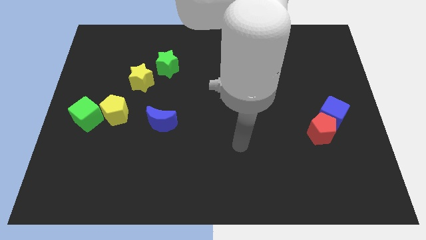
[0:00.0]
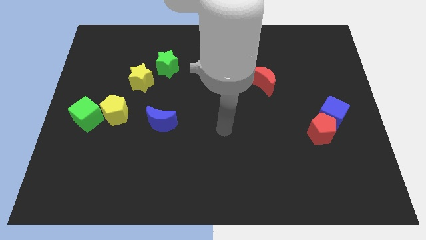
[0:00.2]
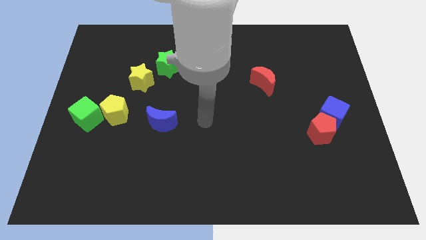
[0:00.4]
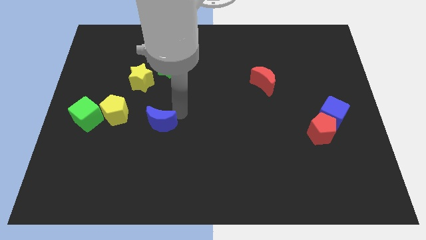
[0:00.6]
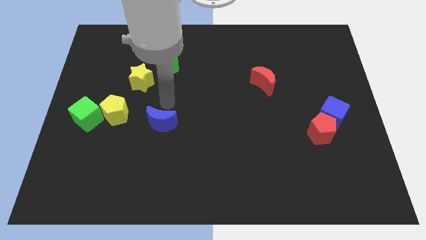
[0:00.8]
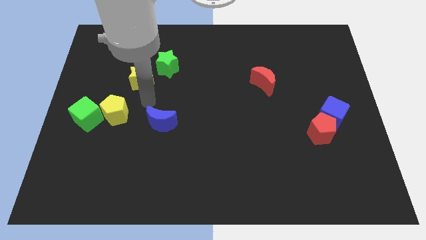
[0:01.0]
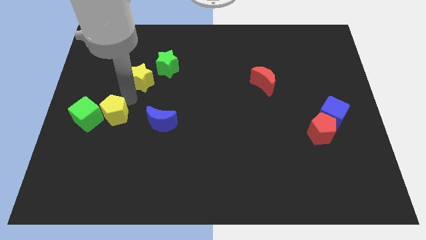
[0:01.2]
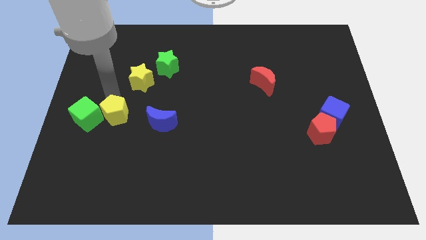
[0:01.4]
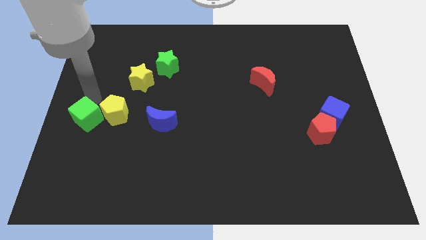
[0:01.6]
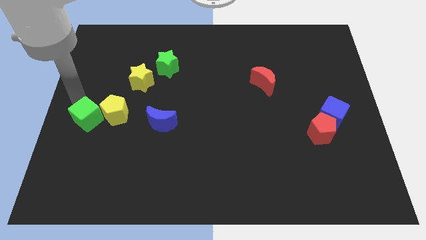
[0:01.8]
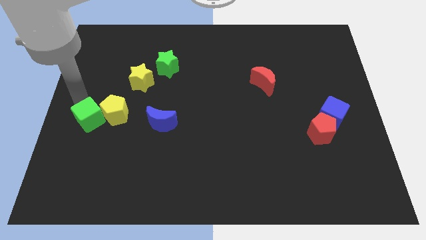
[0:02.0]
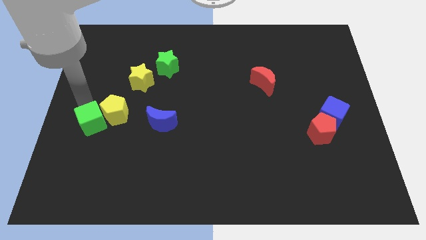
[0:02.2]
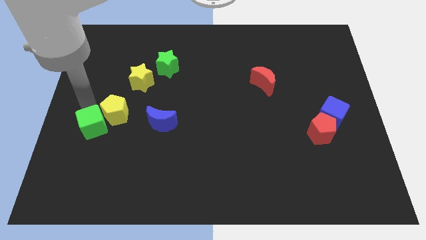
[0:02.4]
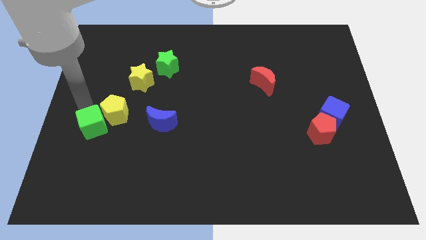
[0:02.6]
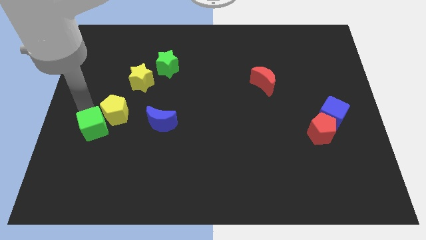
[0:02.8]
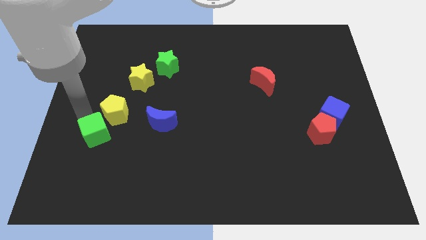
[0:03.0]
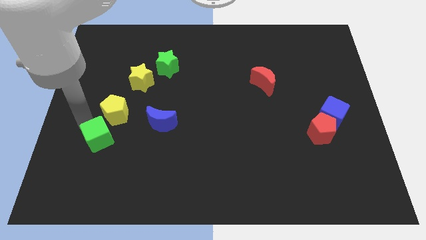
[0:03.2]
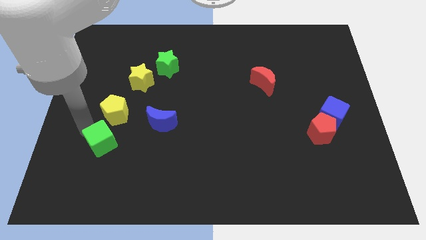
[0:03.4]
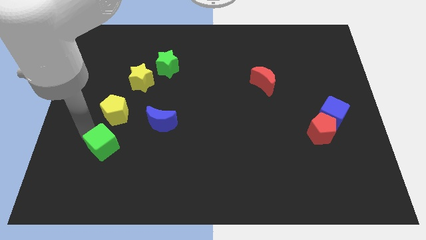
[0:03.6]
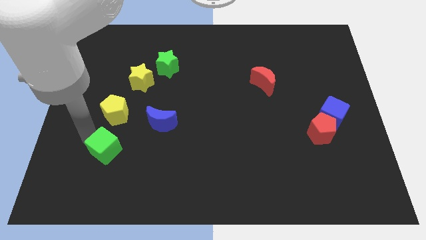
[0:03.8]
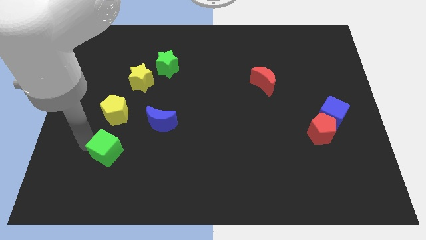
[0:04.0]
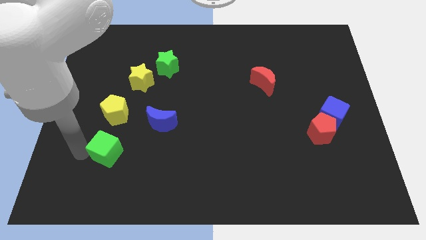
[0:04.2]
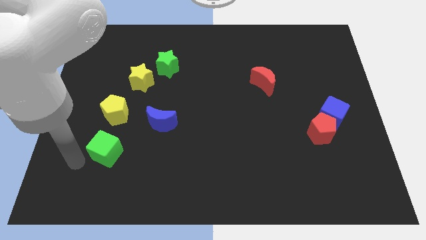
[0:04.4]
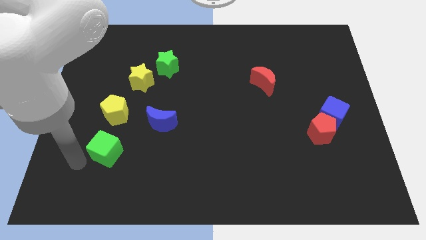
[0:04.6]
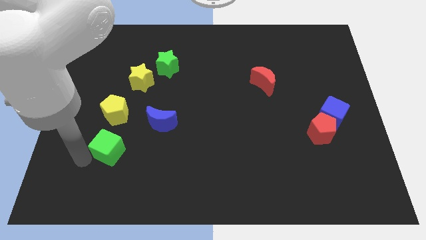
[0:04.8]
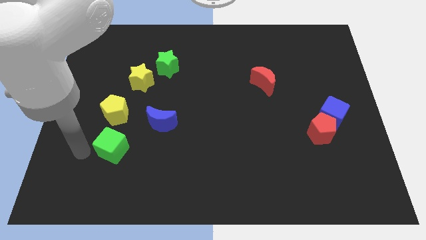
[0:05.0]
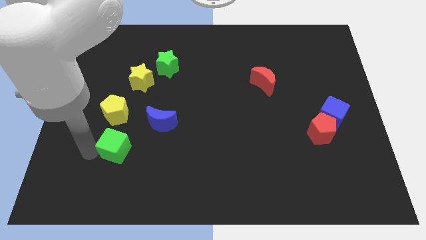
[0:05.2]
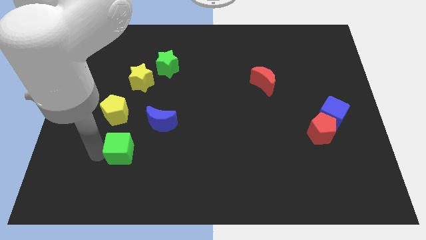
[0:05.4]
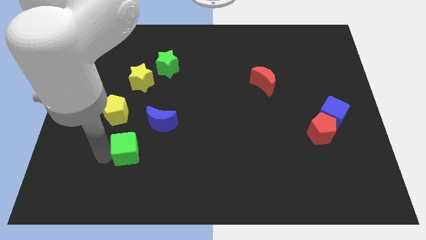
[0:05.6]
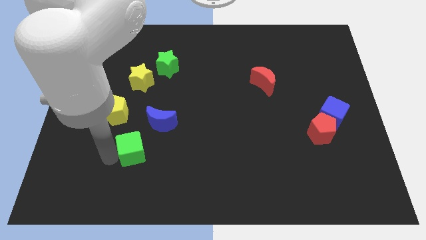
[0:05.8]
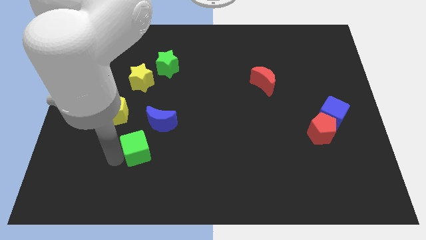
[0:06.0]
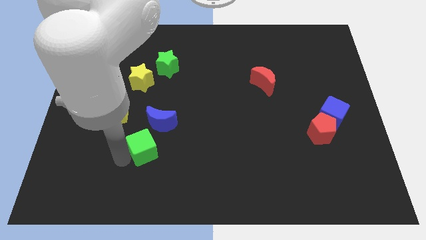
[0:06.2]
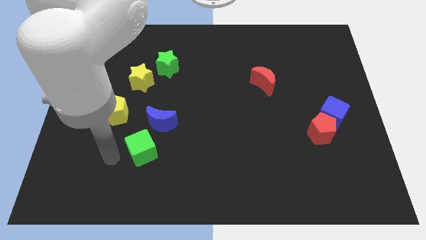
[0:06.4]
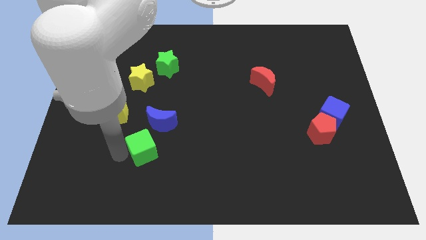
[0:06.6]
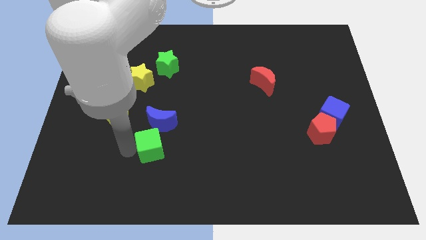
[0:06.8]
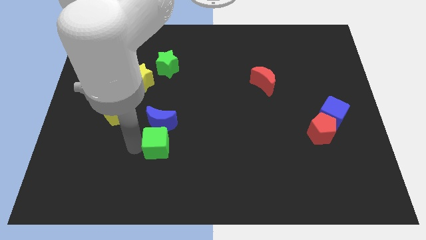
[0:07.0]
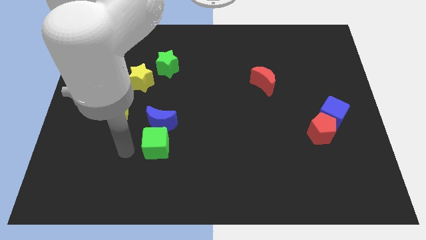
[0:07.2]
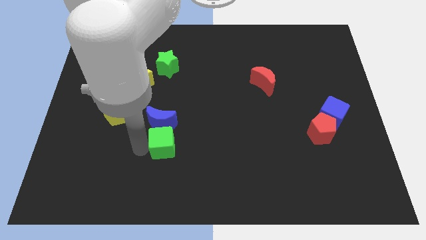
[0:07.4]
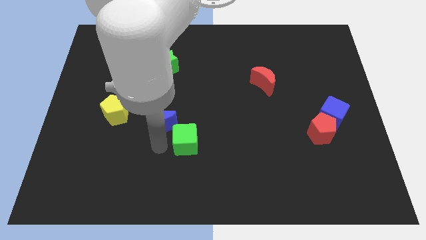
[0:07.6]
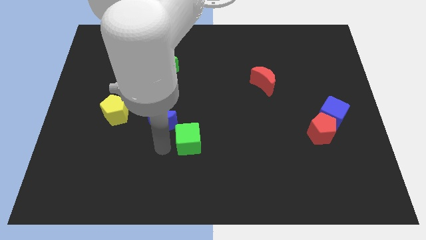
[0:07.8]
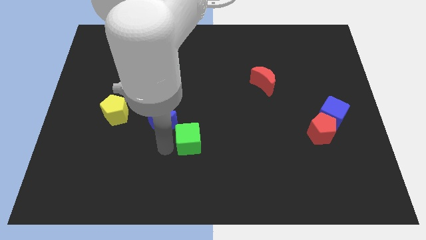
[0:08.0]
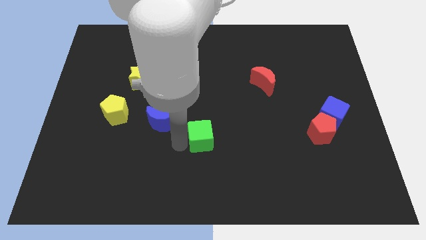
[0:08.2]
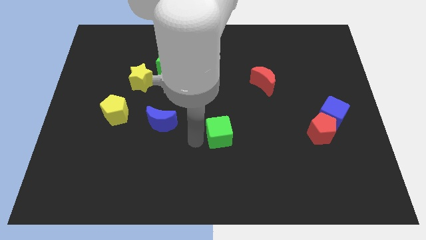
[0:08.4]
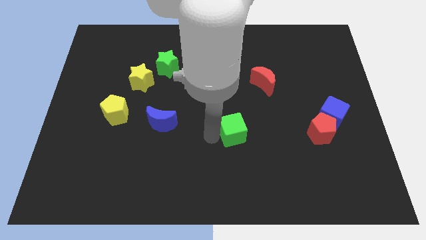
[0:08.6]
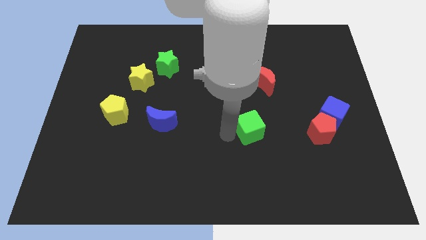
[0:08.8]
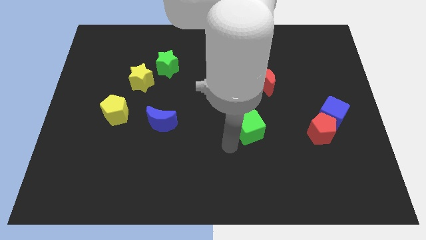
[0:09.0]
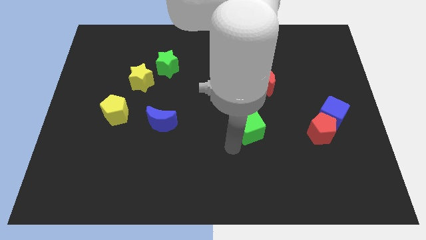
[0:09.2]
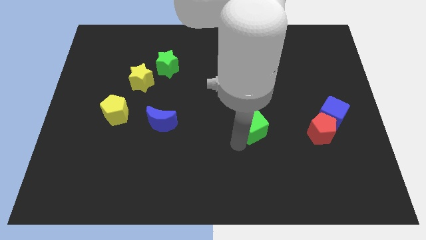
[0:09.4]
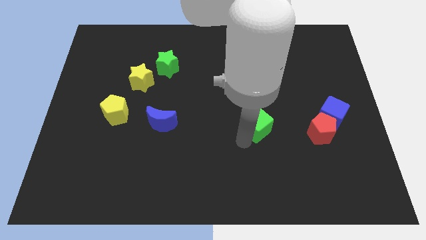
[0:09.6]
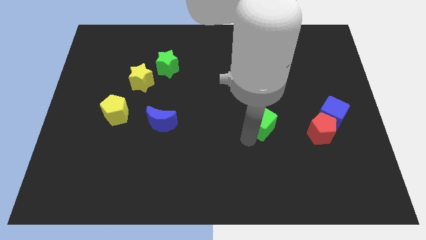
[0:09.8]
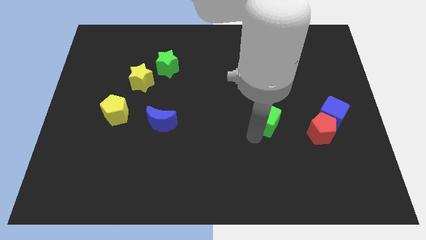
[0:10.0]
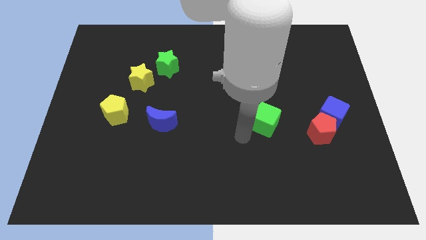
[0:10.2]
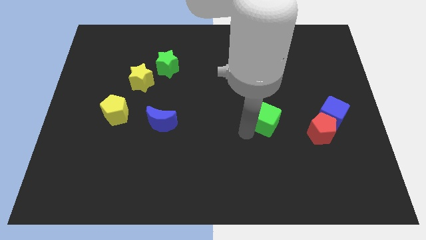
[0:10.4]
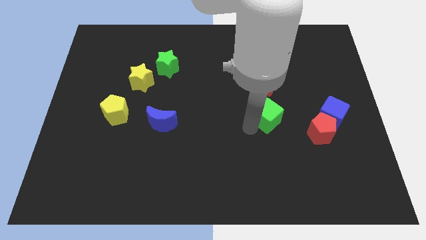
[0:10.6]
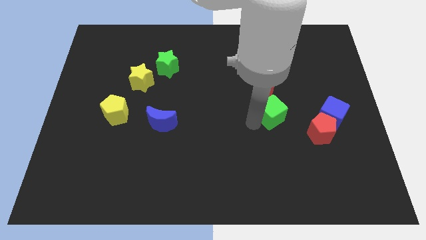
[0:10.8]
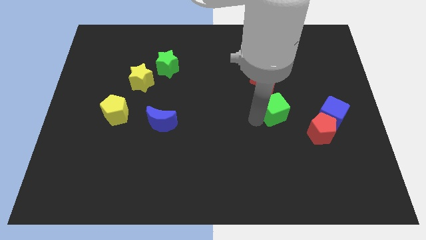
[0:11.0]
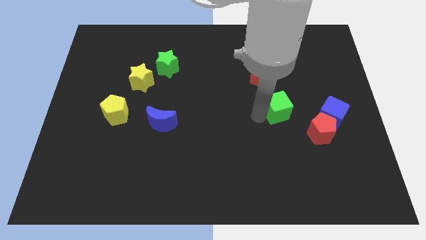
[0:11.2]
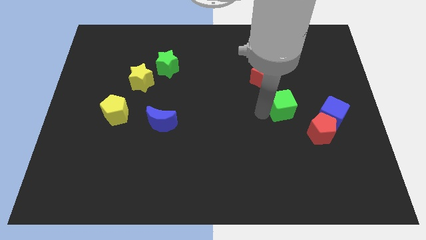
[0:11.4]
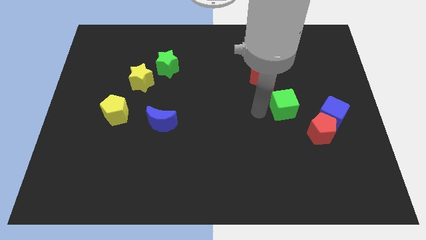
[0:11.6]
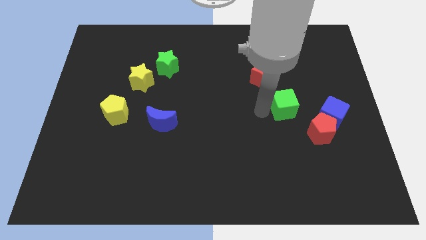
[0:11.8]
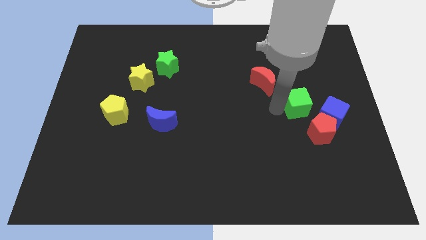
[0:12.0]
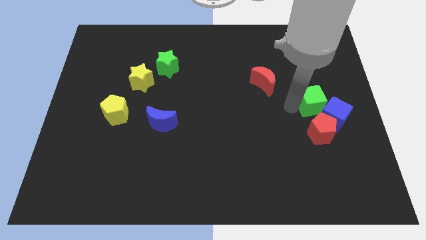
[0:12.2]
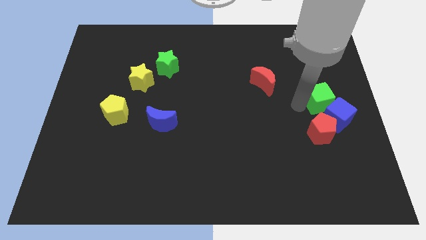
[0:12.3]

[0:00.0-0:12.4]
move the green cube to the center right
